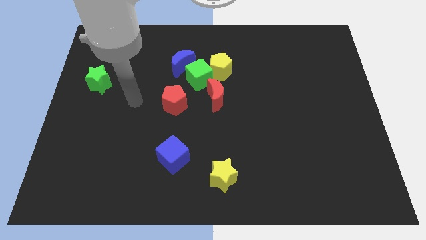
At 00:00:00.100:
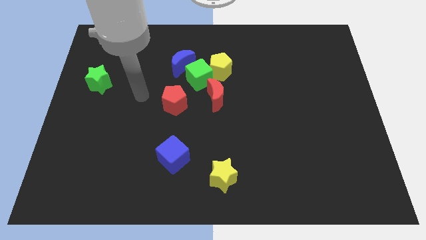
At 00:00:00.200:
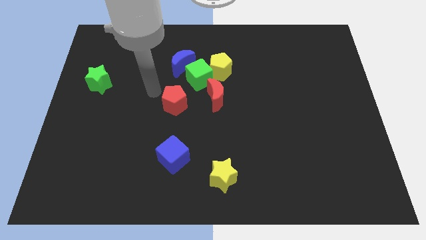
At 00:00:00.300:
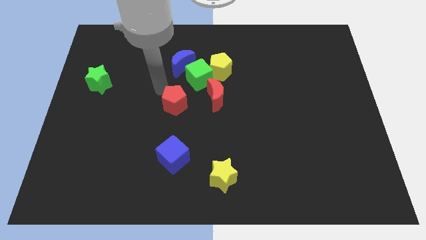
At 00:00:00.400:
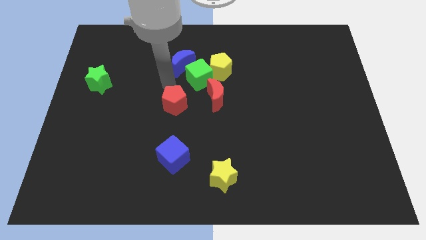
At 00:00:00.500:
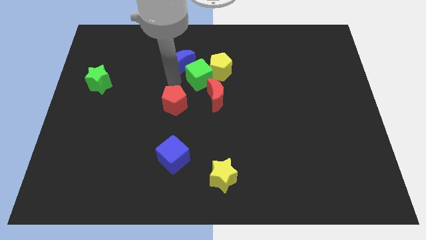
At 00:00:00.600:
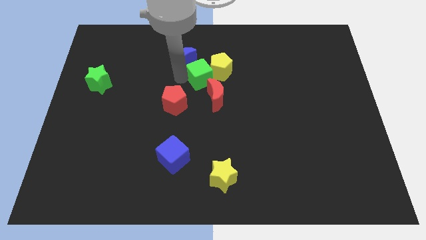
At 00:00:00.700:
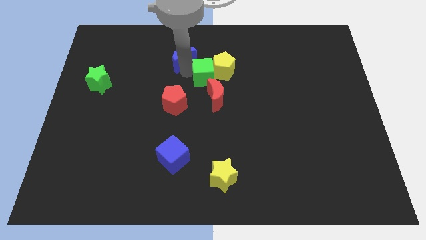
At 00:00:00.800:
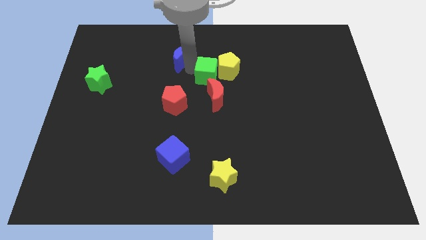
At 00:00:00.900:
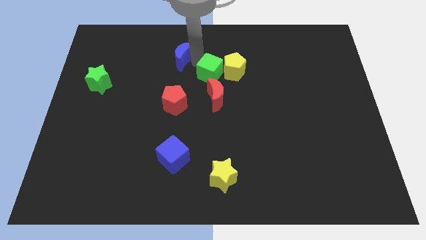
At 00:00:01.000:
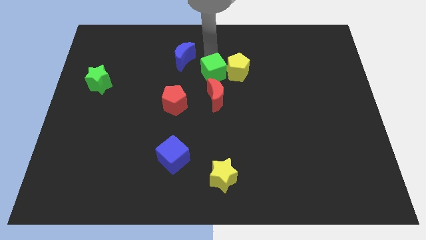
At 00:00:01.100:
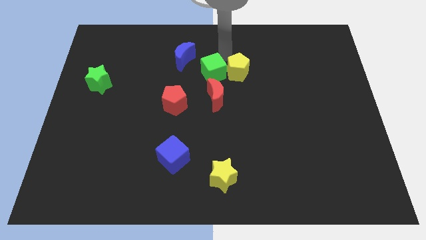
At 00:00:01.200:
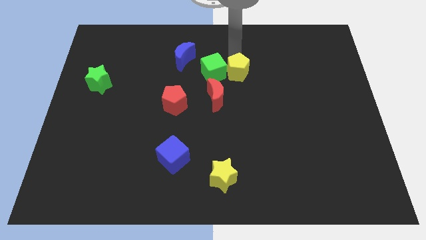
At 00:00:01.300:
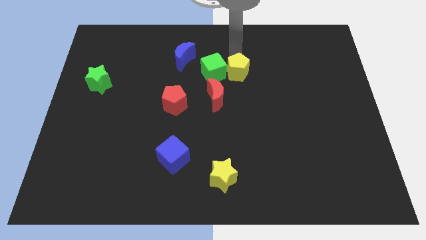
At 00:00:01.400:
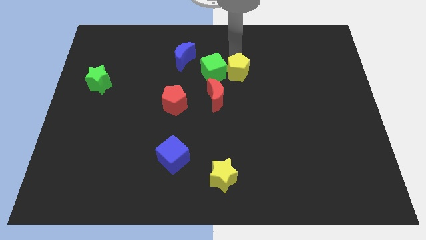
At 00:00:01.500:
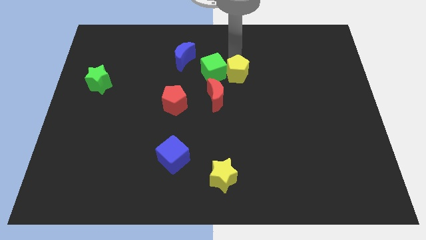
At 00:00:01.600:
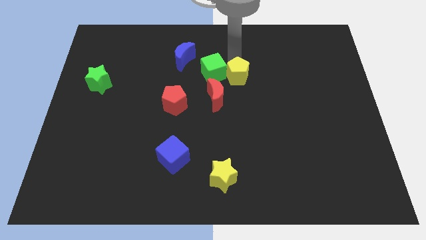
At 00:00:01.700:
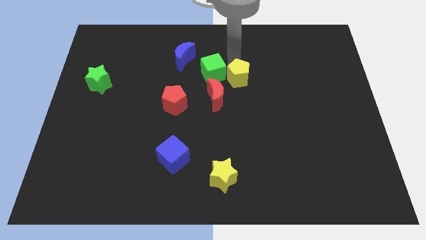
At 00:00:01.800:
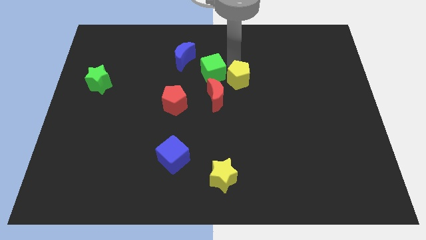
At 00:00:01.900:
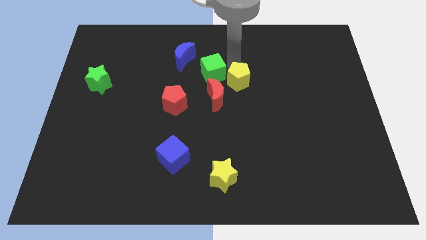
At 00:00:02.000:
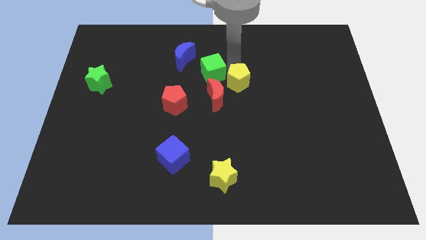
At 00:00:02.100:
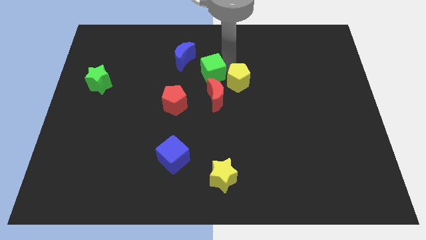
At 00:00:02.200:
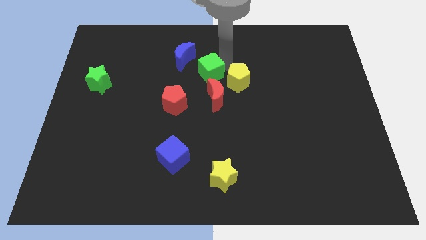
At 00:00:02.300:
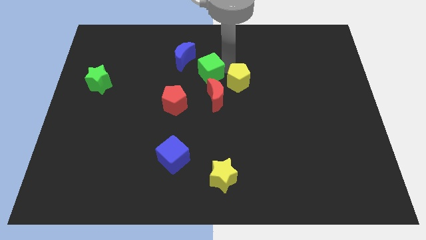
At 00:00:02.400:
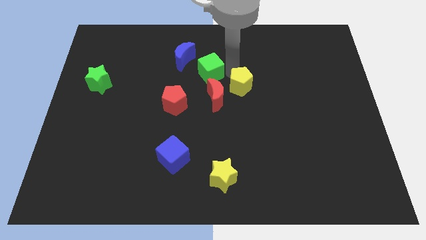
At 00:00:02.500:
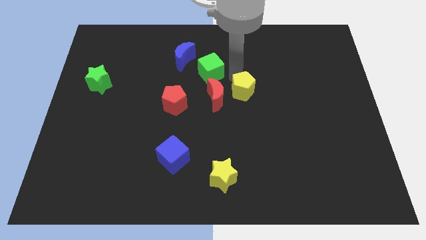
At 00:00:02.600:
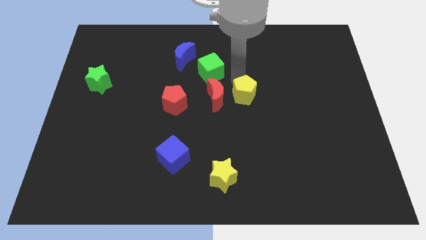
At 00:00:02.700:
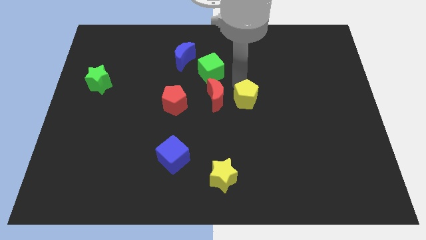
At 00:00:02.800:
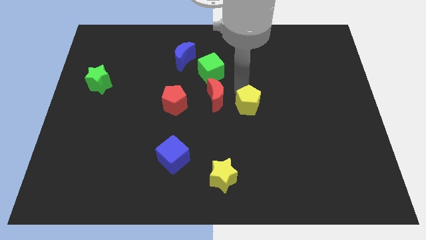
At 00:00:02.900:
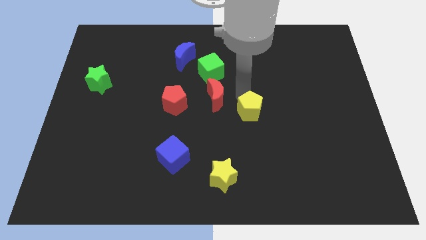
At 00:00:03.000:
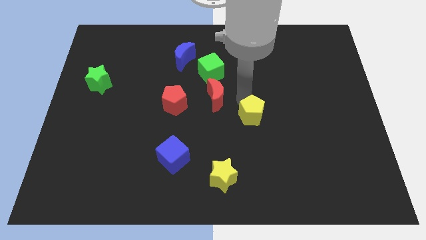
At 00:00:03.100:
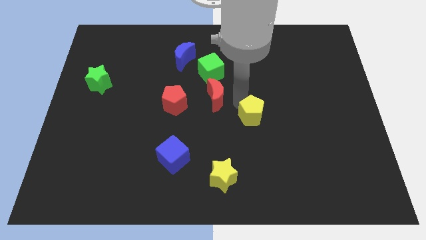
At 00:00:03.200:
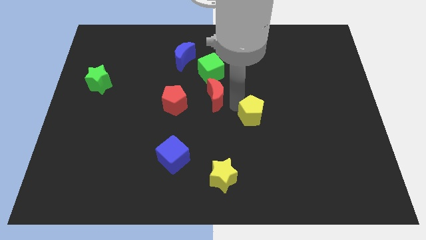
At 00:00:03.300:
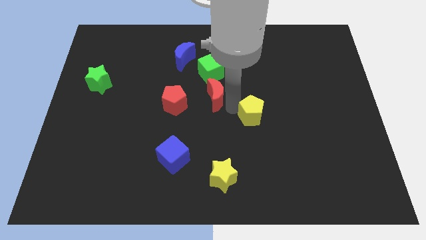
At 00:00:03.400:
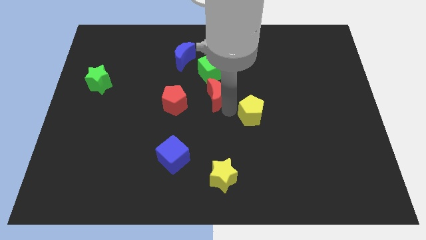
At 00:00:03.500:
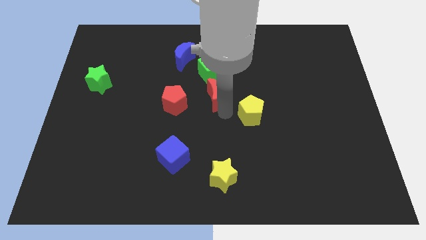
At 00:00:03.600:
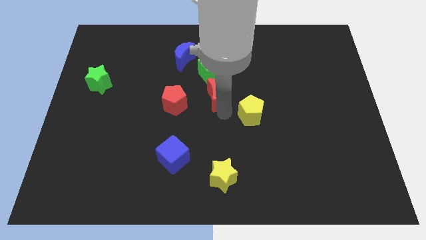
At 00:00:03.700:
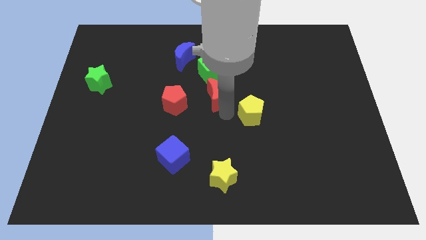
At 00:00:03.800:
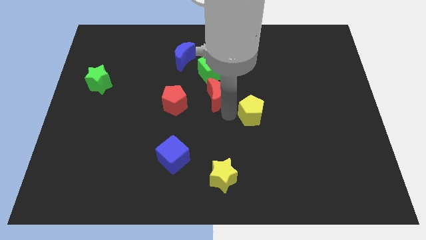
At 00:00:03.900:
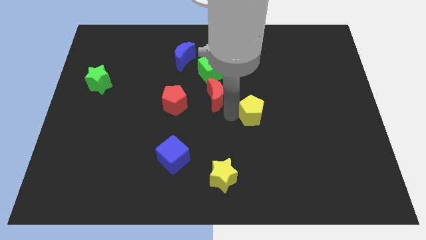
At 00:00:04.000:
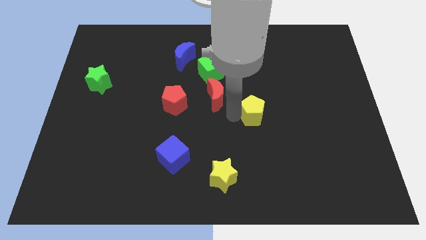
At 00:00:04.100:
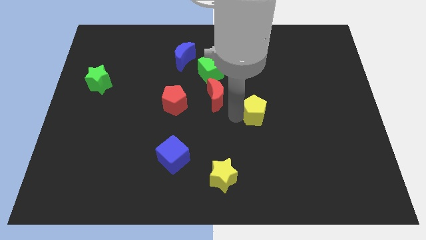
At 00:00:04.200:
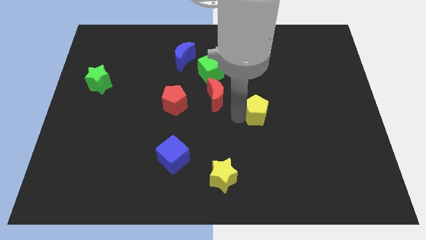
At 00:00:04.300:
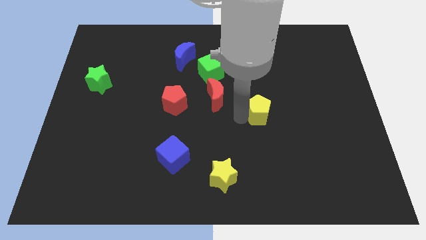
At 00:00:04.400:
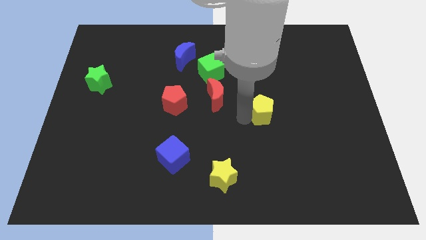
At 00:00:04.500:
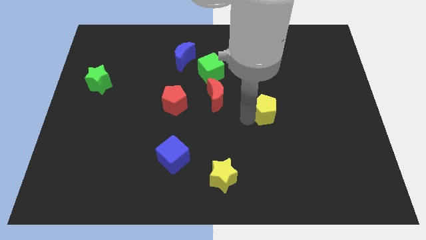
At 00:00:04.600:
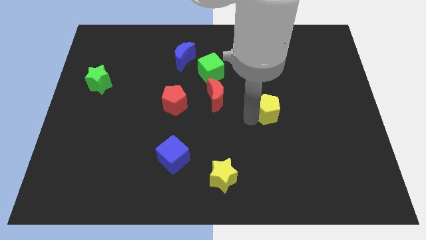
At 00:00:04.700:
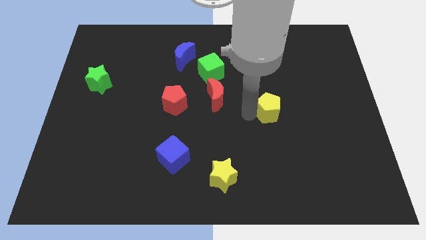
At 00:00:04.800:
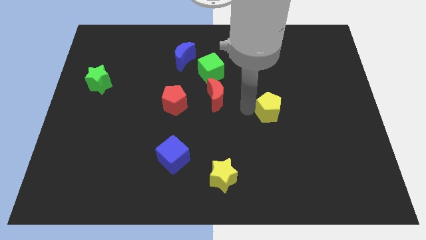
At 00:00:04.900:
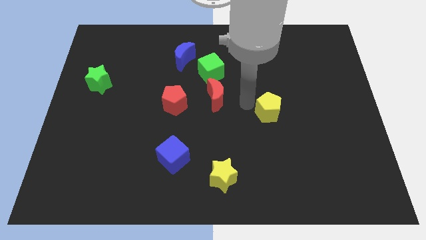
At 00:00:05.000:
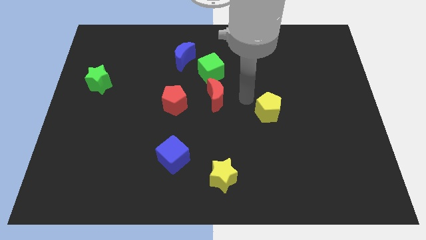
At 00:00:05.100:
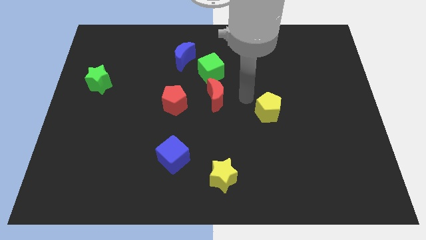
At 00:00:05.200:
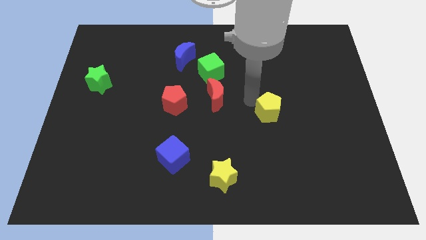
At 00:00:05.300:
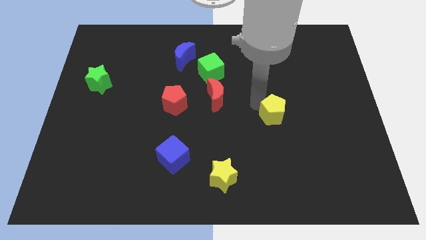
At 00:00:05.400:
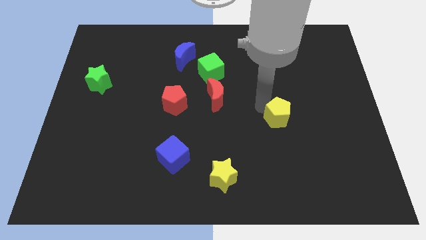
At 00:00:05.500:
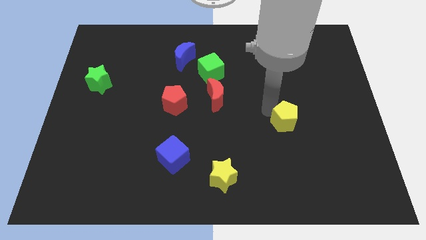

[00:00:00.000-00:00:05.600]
move the yellow pentagon downwards and right

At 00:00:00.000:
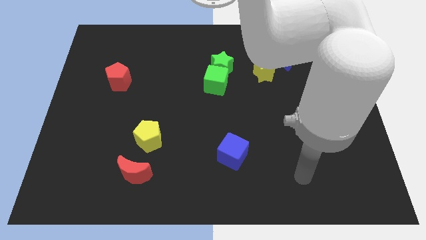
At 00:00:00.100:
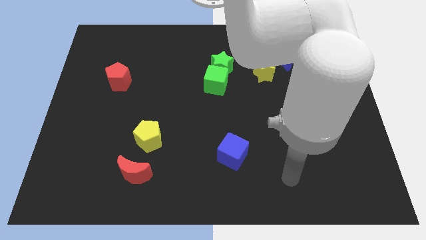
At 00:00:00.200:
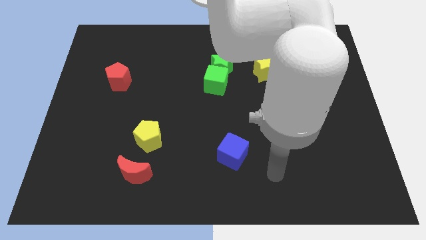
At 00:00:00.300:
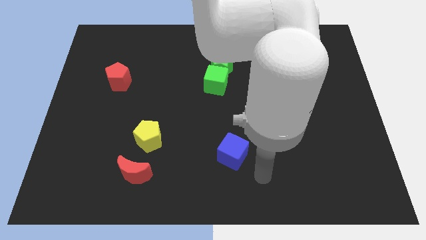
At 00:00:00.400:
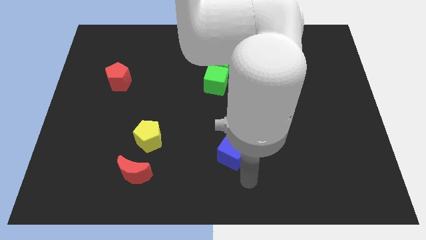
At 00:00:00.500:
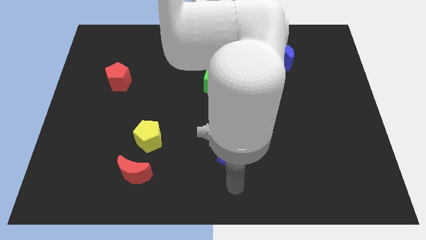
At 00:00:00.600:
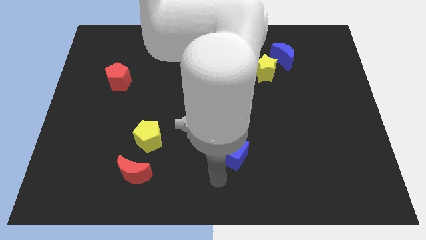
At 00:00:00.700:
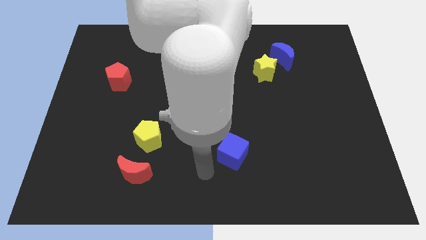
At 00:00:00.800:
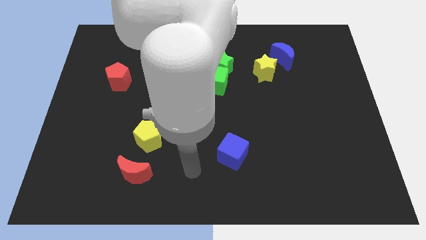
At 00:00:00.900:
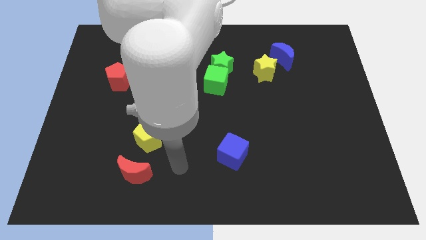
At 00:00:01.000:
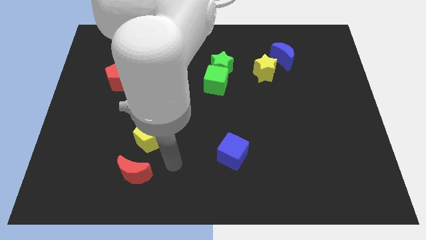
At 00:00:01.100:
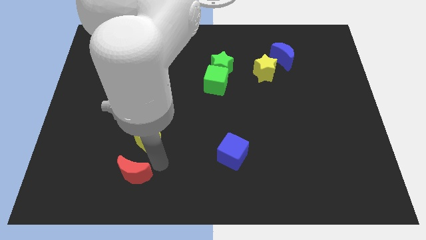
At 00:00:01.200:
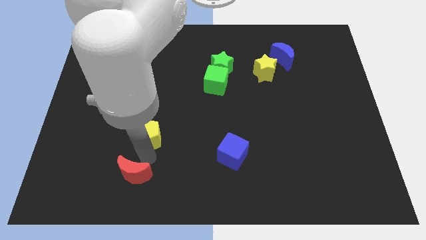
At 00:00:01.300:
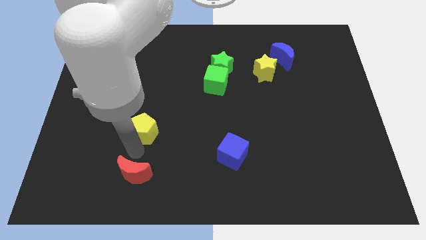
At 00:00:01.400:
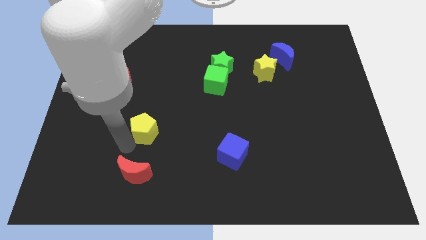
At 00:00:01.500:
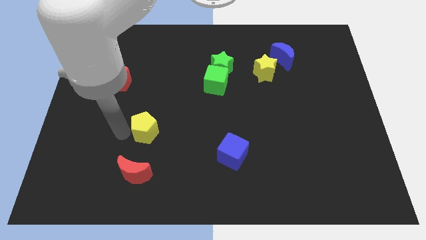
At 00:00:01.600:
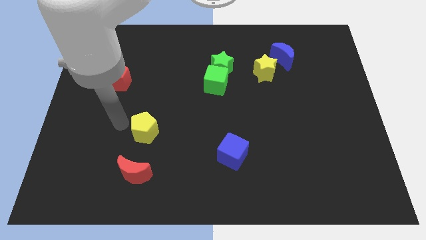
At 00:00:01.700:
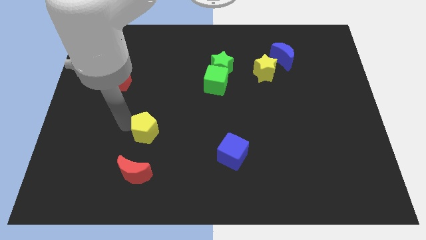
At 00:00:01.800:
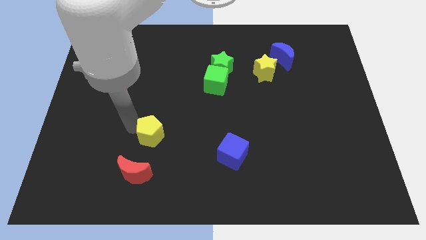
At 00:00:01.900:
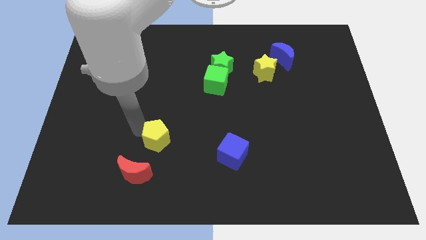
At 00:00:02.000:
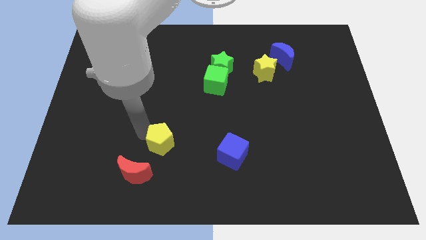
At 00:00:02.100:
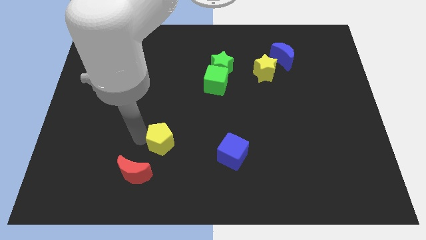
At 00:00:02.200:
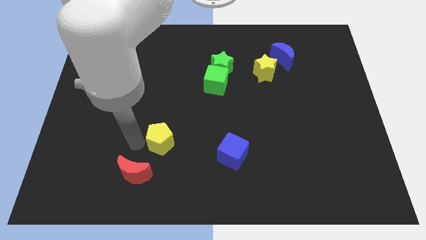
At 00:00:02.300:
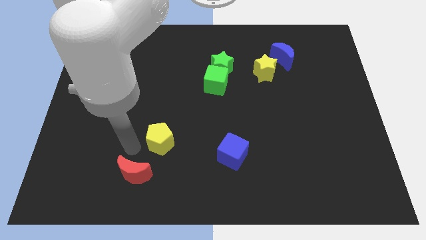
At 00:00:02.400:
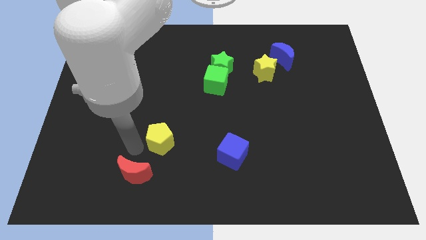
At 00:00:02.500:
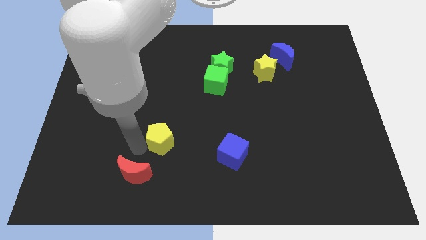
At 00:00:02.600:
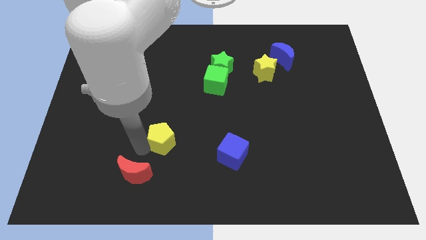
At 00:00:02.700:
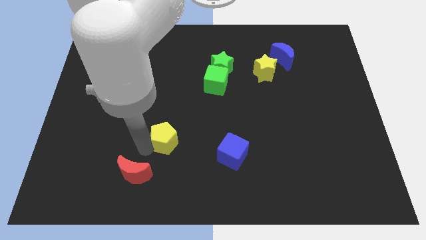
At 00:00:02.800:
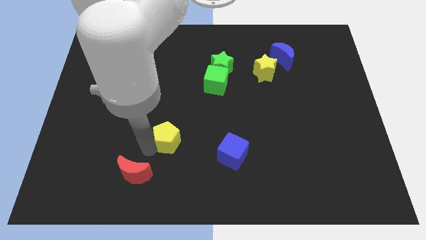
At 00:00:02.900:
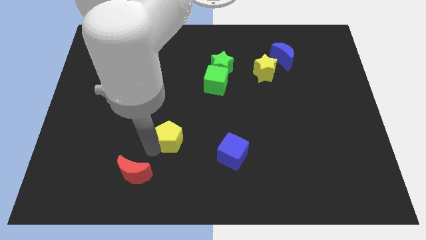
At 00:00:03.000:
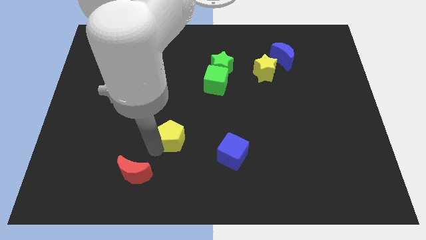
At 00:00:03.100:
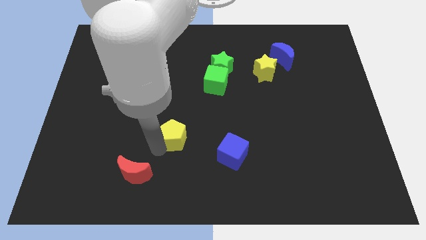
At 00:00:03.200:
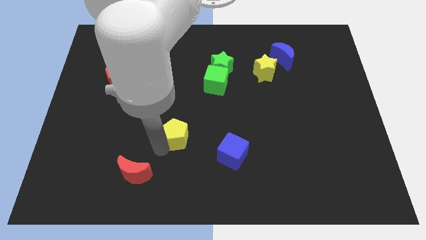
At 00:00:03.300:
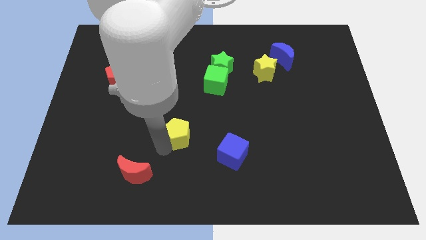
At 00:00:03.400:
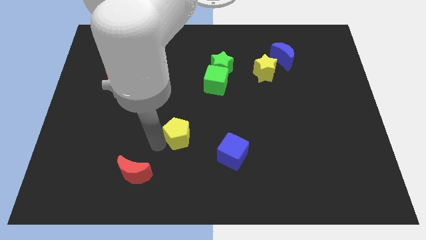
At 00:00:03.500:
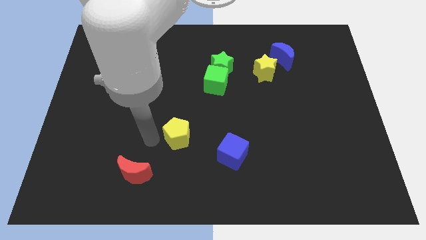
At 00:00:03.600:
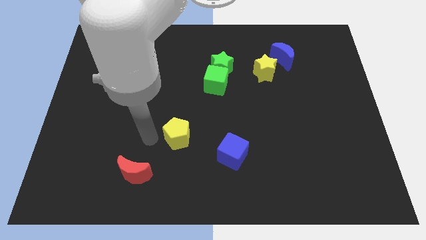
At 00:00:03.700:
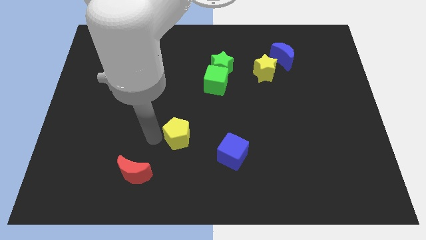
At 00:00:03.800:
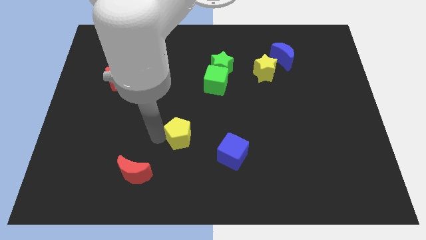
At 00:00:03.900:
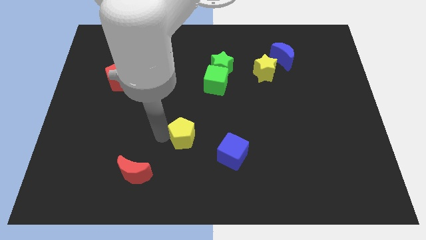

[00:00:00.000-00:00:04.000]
move the yellow pentagon slightly right
